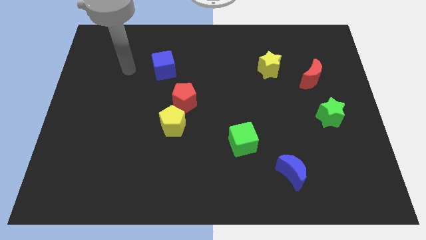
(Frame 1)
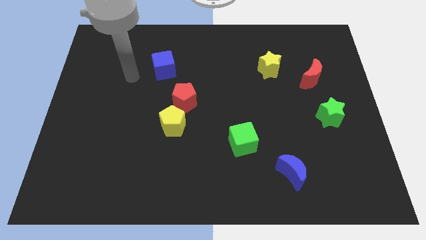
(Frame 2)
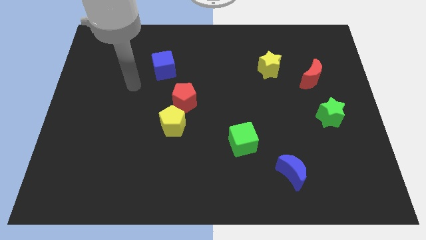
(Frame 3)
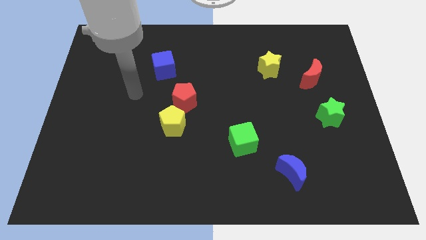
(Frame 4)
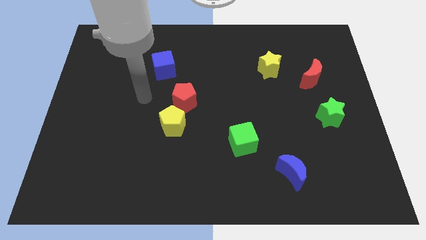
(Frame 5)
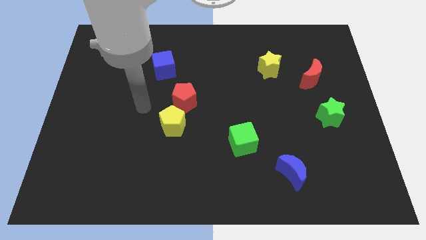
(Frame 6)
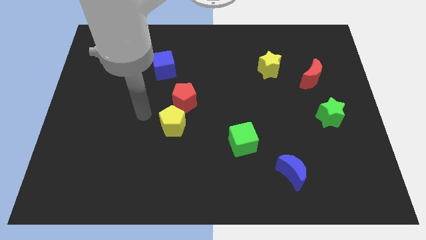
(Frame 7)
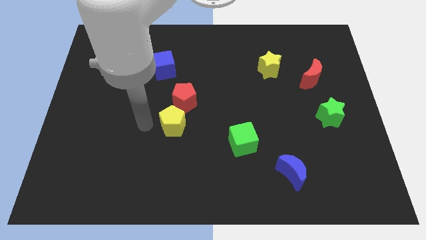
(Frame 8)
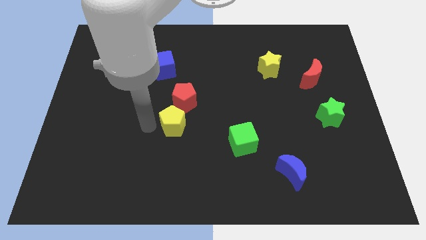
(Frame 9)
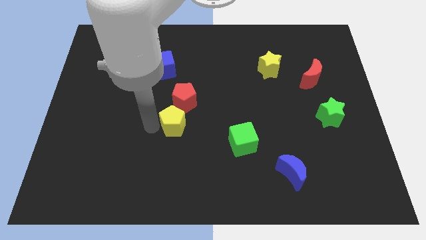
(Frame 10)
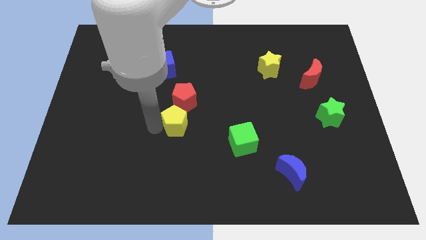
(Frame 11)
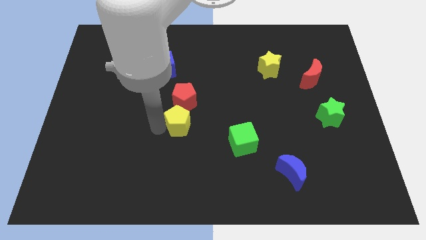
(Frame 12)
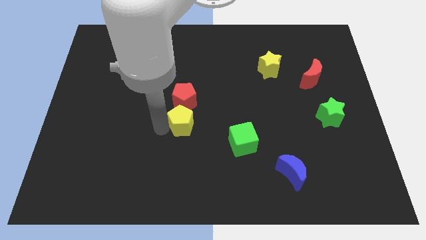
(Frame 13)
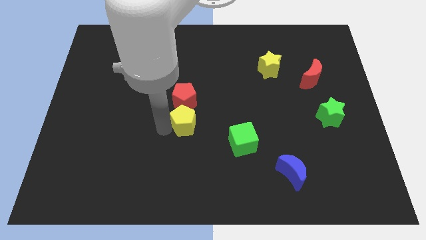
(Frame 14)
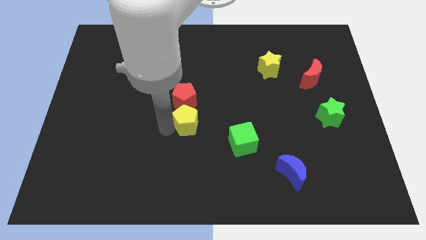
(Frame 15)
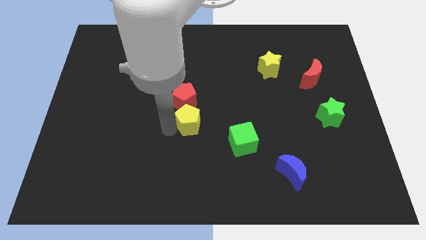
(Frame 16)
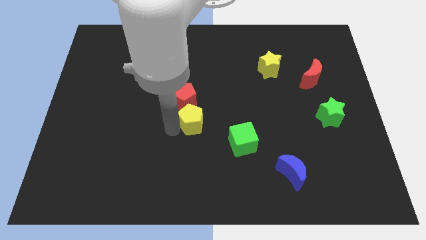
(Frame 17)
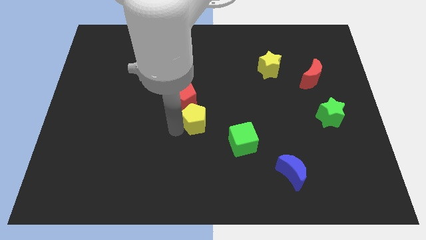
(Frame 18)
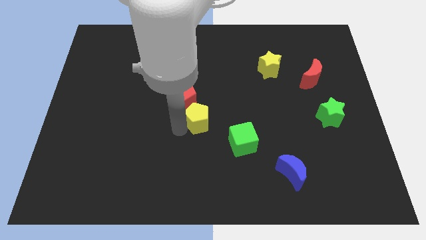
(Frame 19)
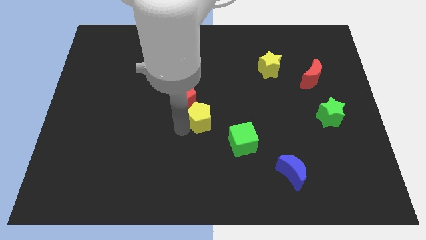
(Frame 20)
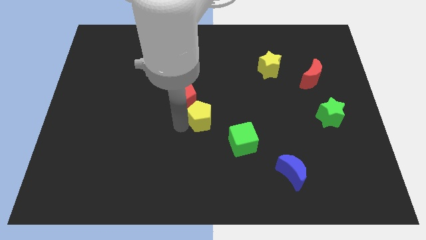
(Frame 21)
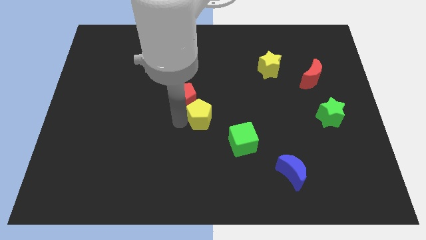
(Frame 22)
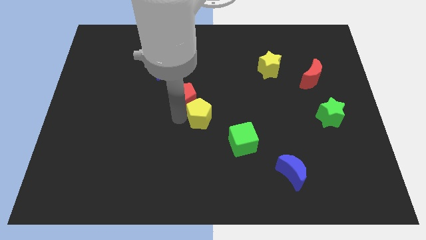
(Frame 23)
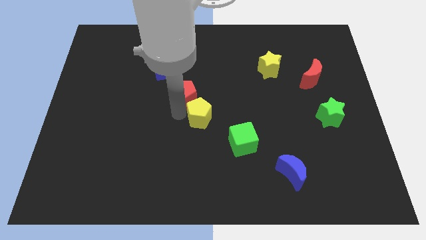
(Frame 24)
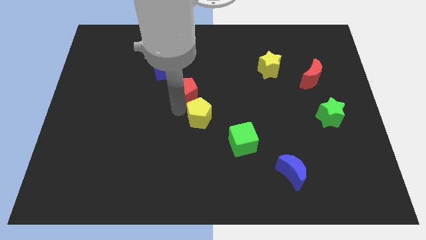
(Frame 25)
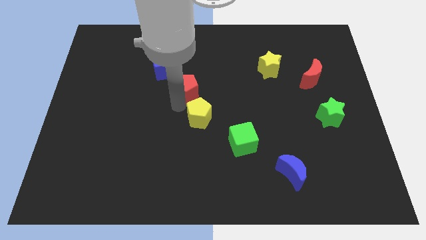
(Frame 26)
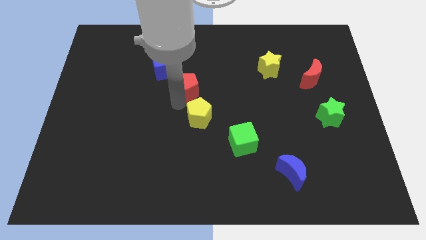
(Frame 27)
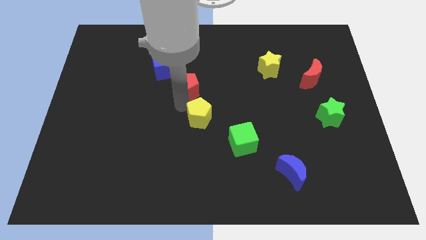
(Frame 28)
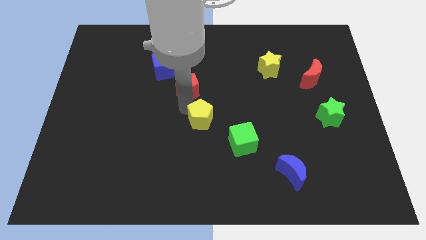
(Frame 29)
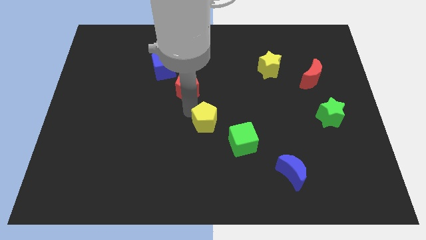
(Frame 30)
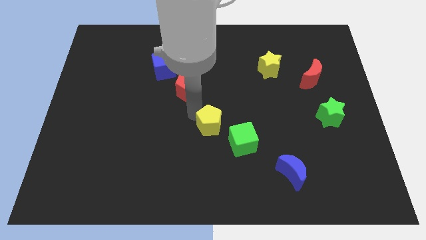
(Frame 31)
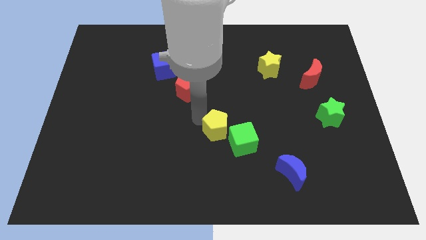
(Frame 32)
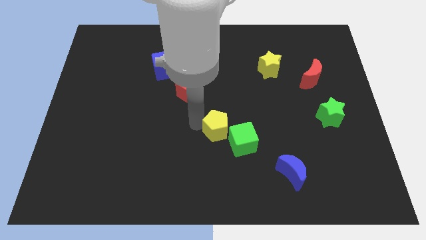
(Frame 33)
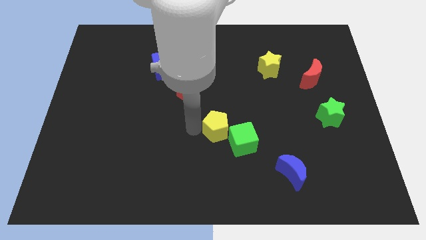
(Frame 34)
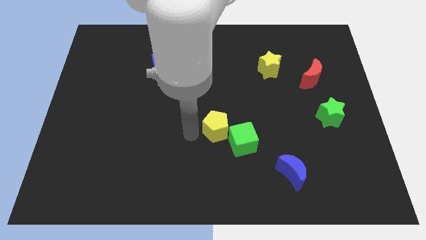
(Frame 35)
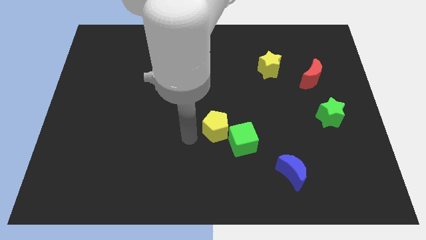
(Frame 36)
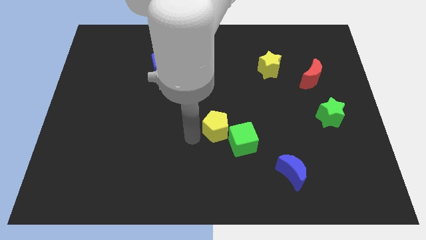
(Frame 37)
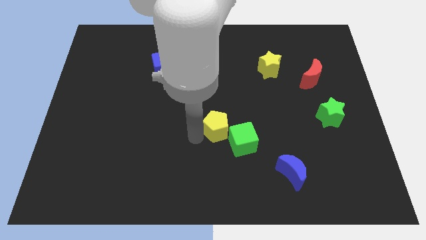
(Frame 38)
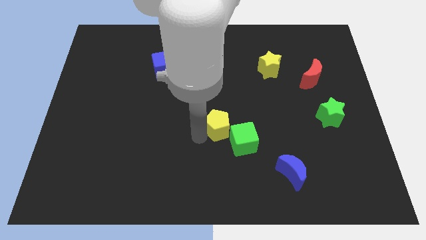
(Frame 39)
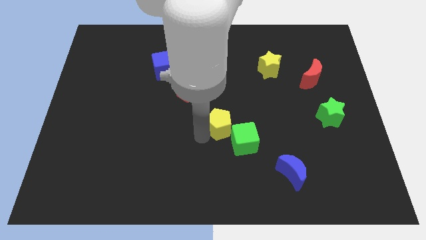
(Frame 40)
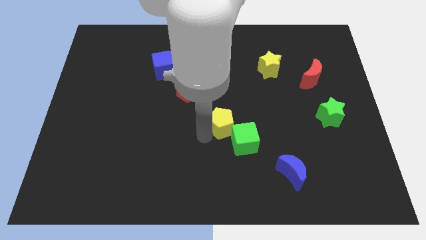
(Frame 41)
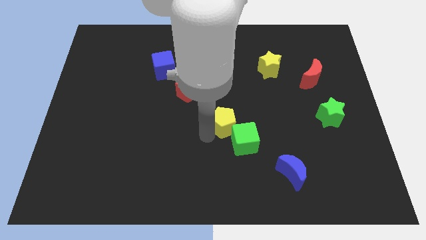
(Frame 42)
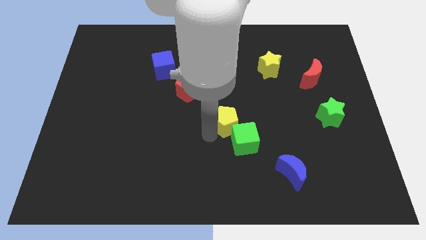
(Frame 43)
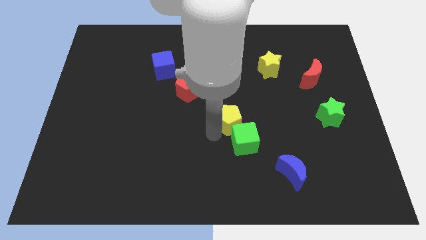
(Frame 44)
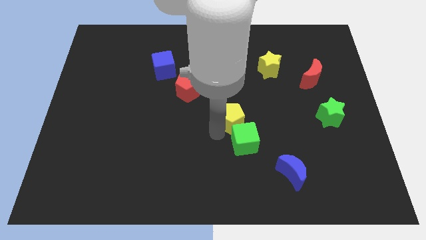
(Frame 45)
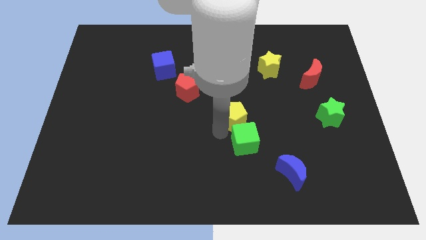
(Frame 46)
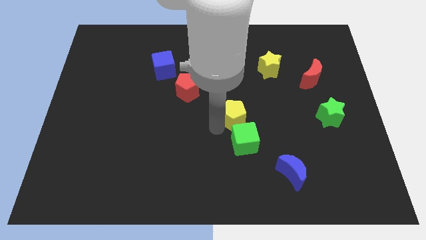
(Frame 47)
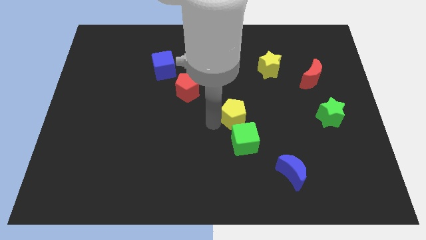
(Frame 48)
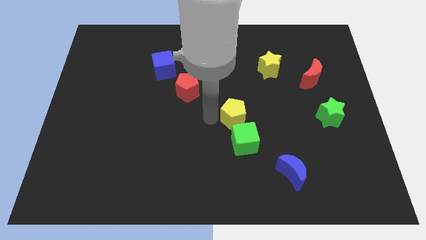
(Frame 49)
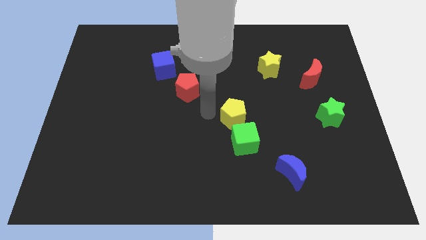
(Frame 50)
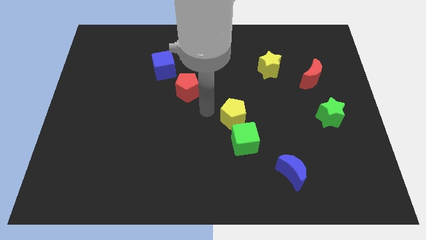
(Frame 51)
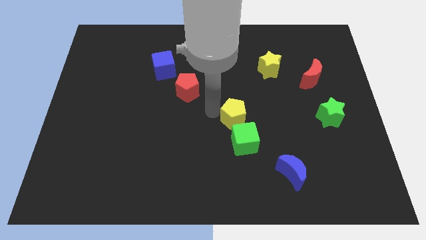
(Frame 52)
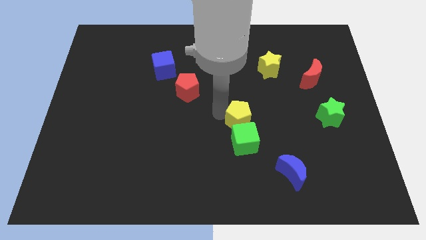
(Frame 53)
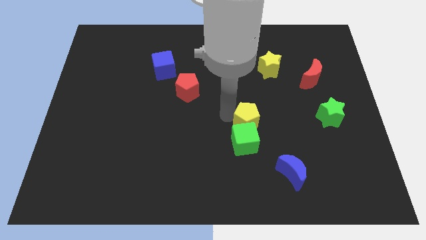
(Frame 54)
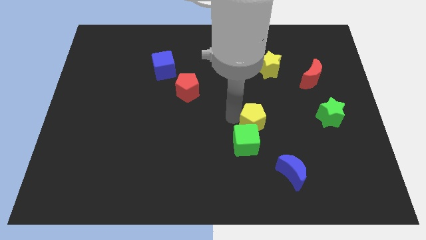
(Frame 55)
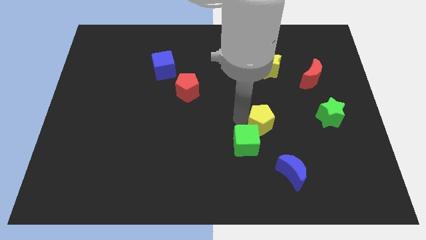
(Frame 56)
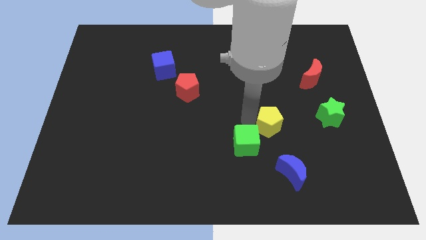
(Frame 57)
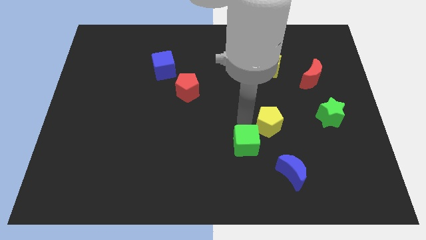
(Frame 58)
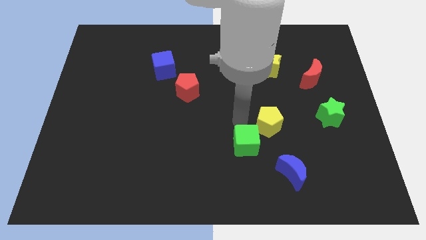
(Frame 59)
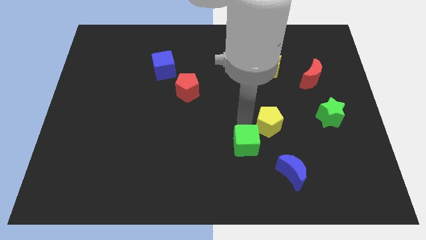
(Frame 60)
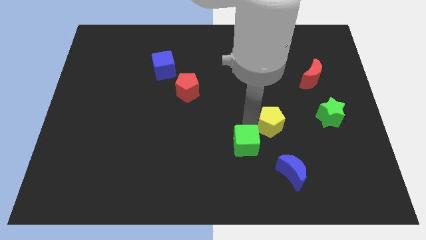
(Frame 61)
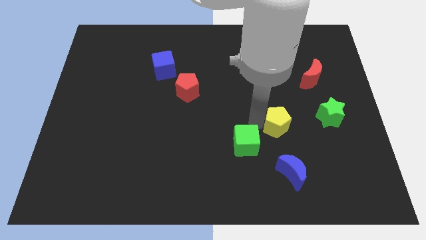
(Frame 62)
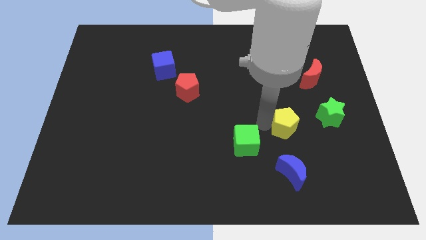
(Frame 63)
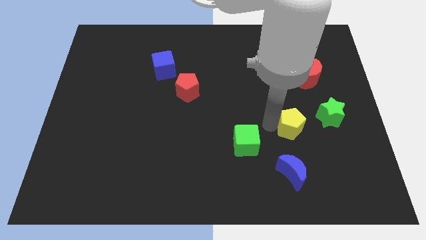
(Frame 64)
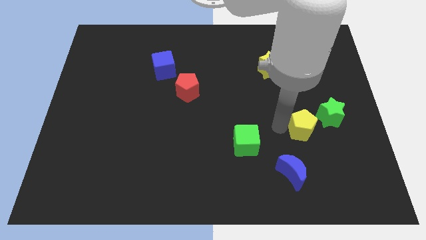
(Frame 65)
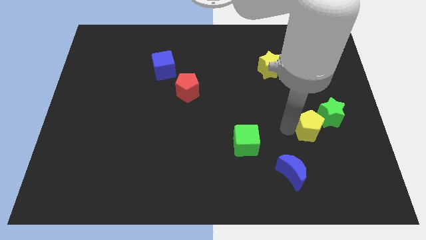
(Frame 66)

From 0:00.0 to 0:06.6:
push the yellow pentagon next to the green star
